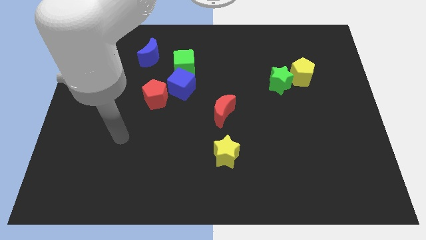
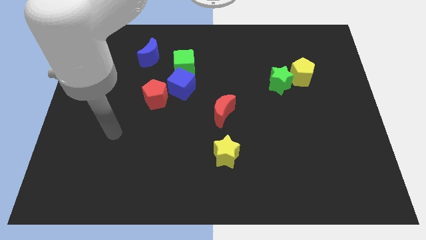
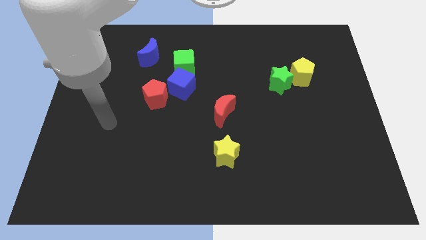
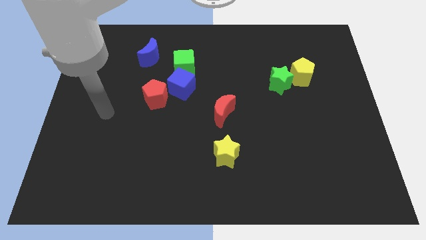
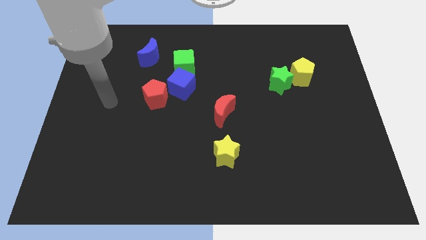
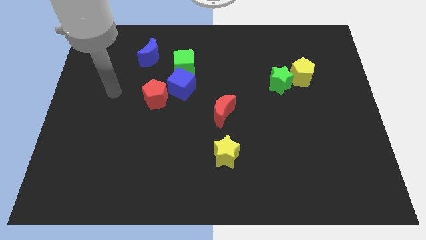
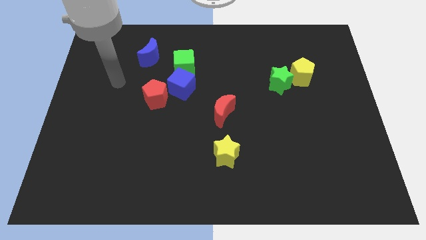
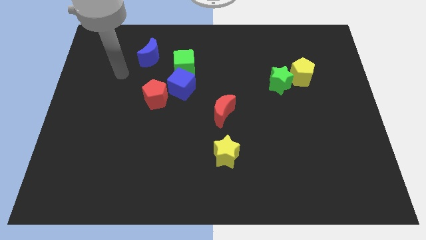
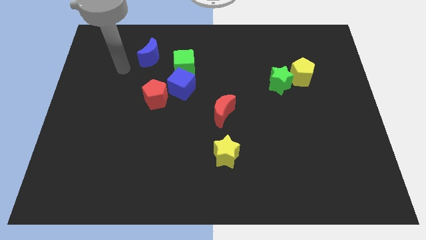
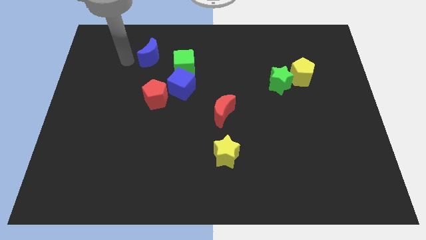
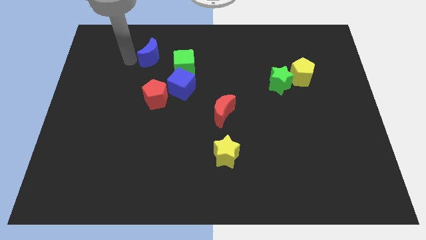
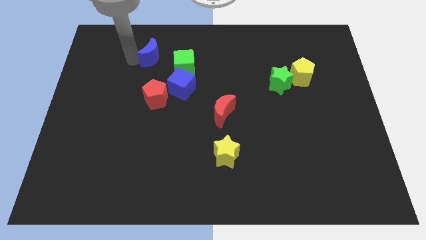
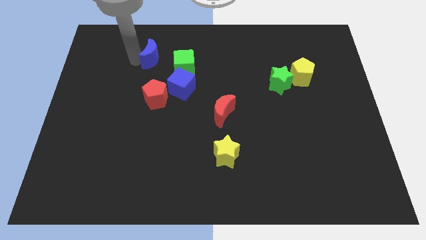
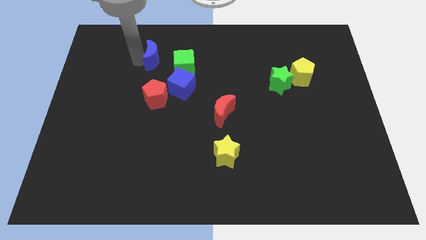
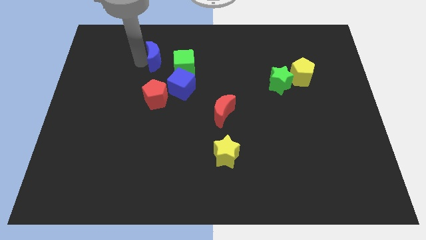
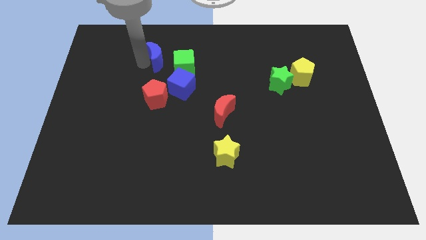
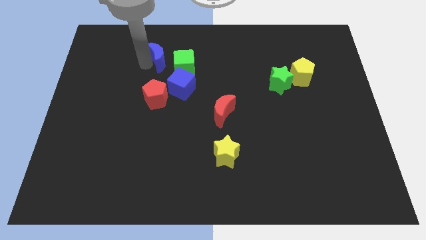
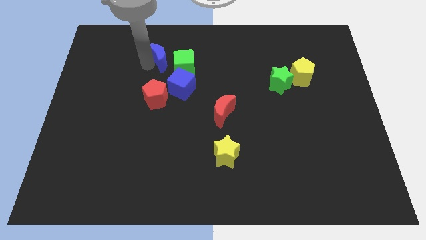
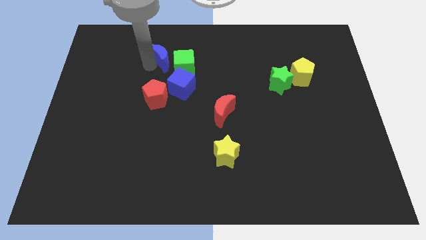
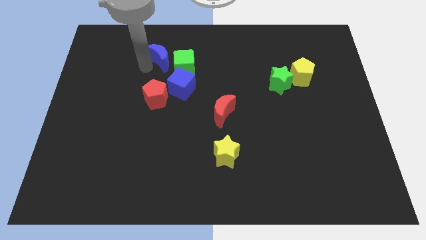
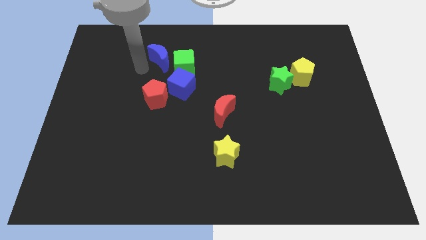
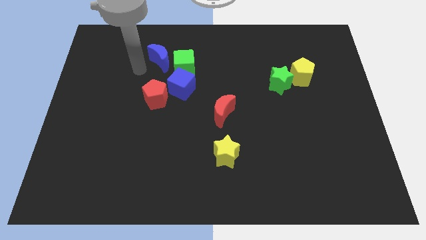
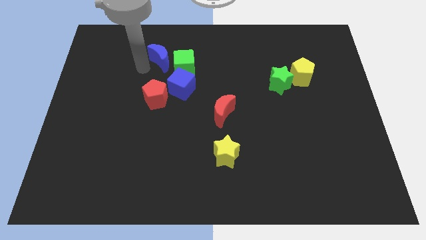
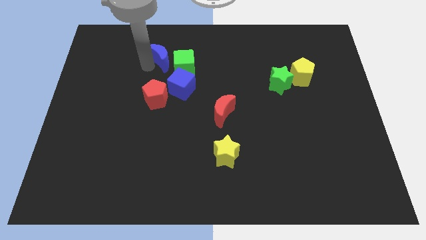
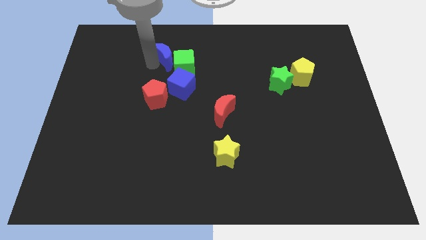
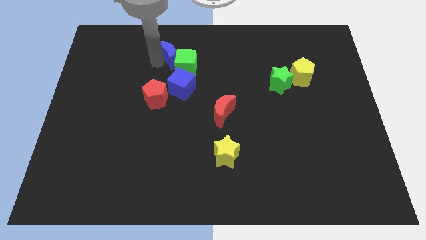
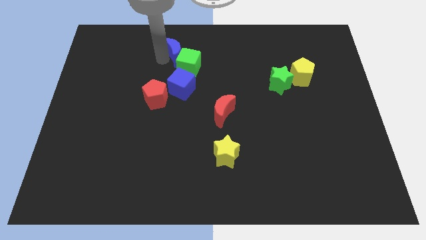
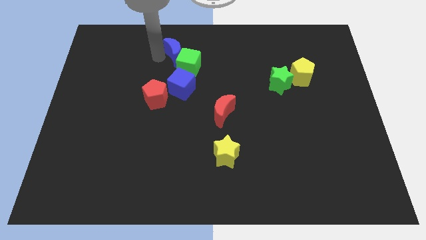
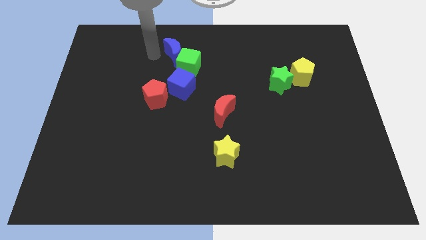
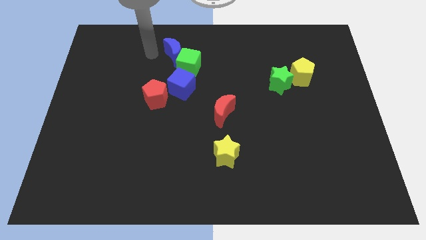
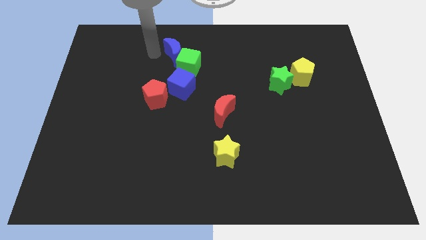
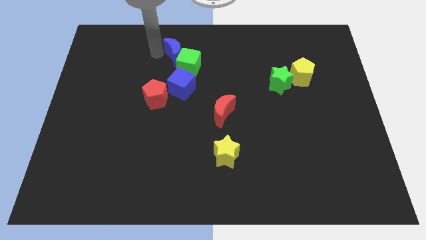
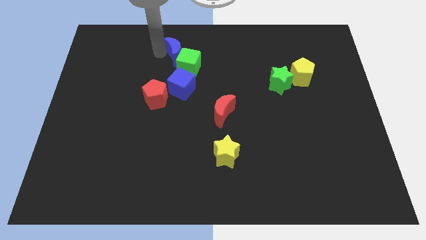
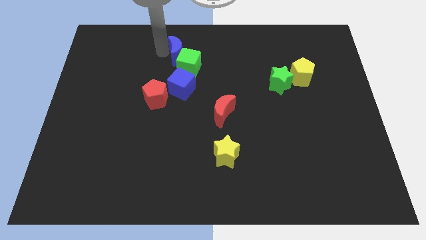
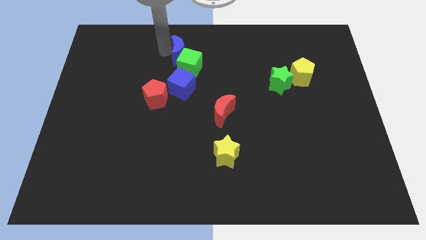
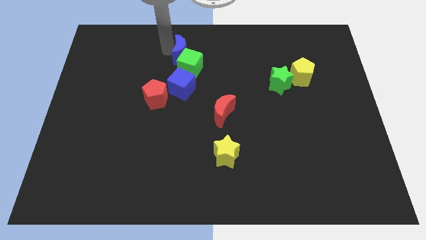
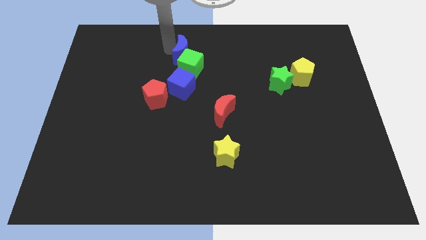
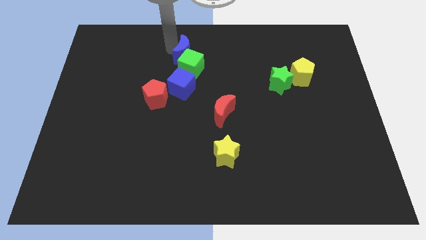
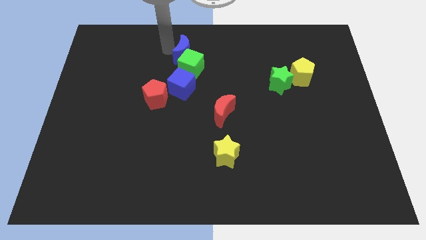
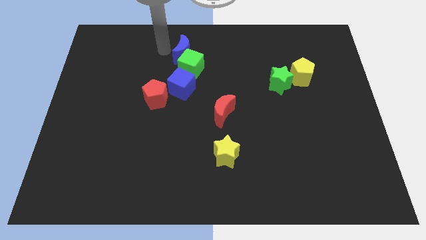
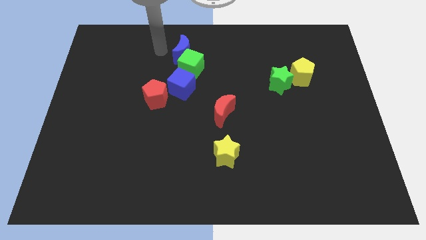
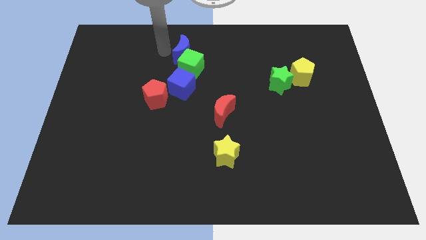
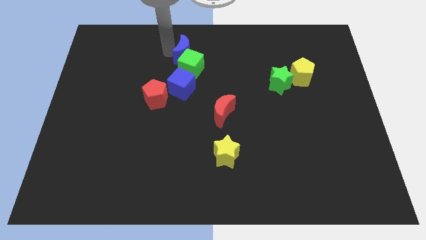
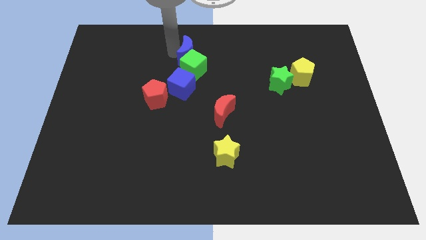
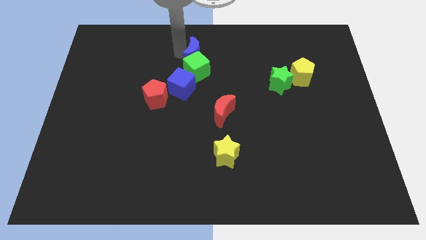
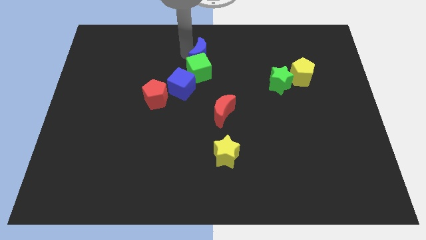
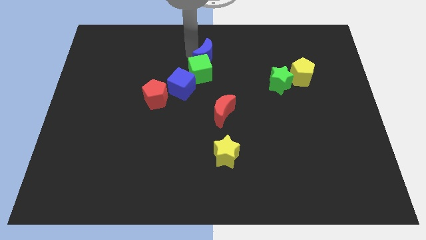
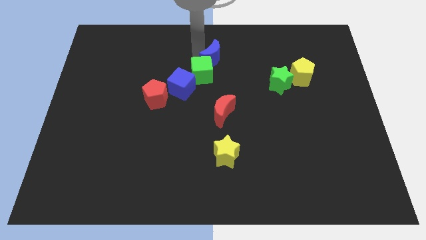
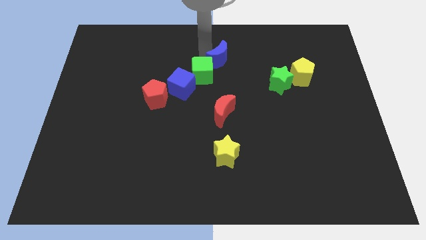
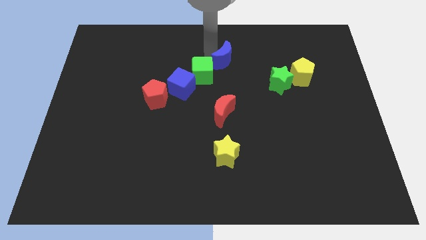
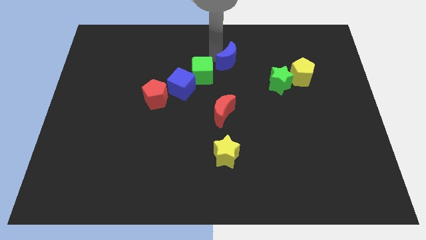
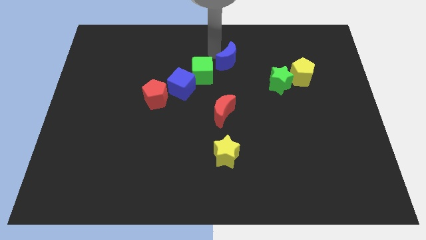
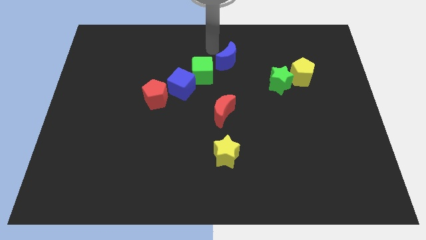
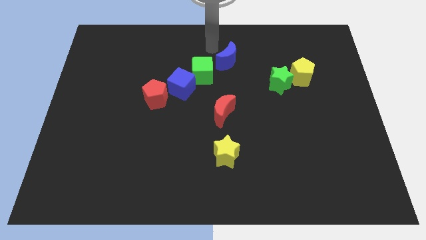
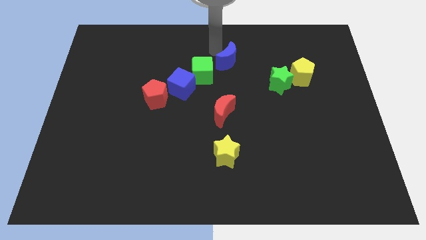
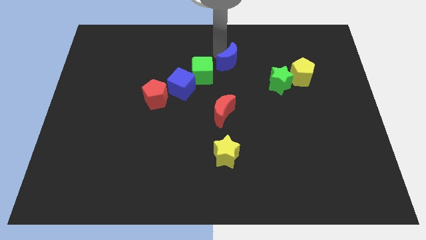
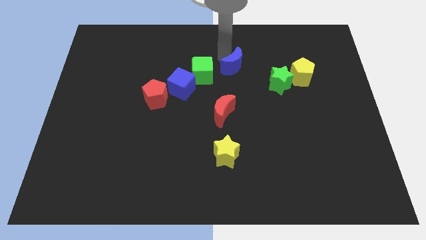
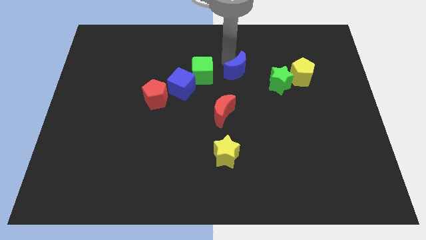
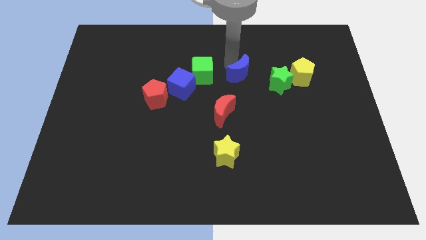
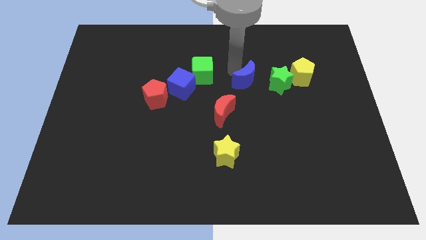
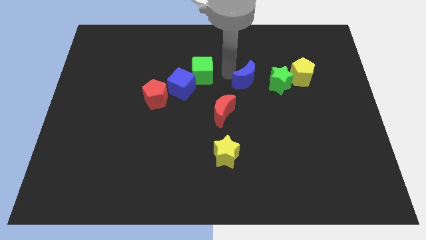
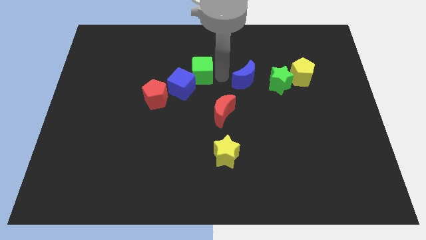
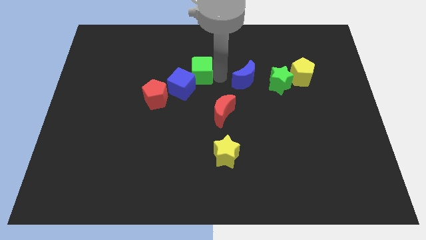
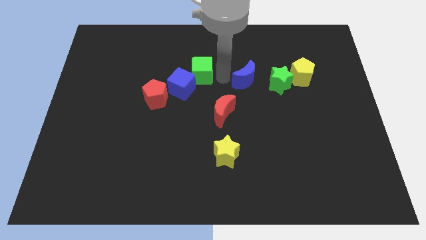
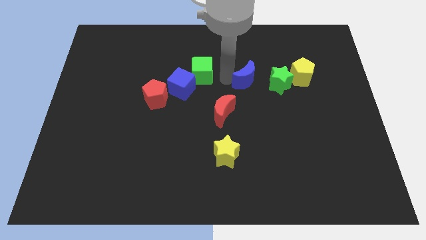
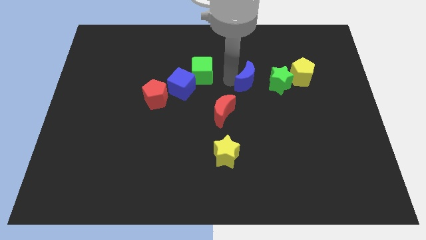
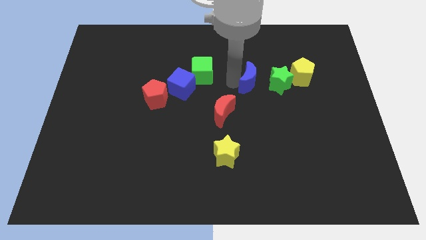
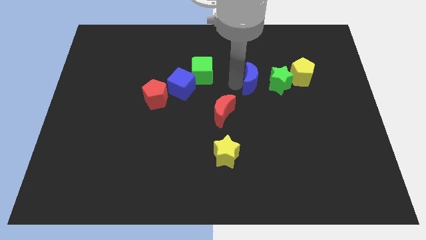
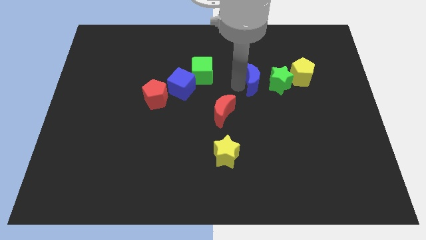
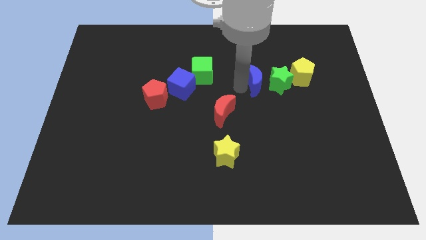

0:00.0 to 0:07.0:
slide the blue moon next to the green star

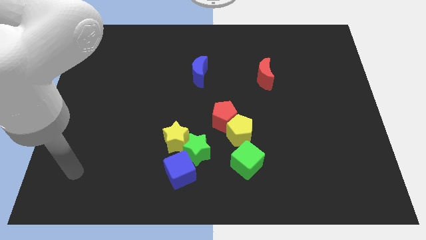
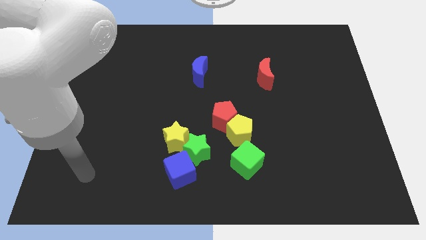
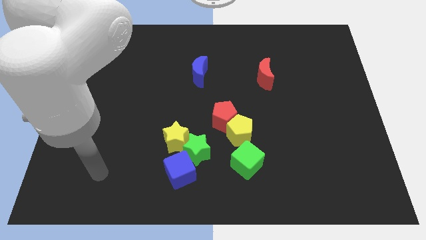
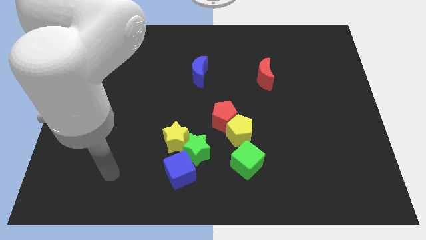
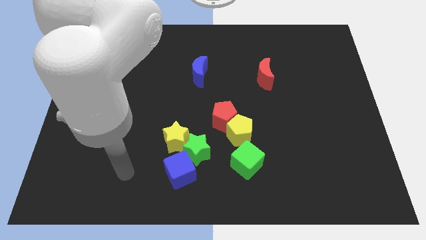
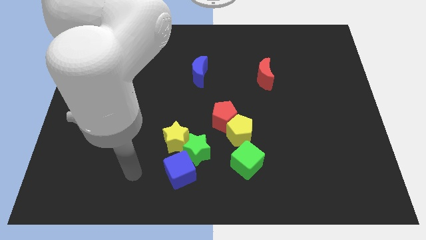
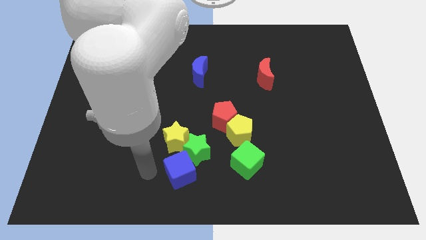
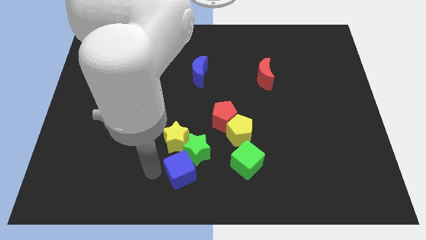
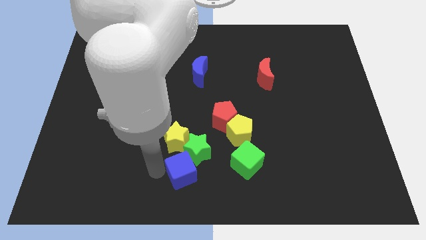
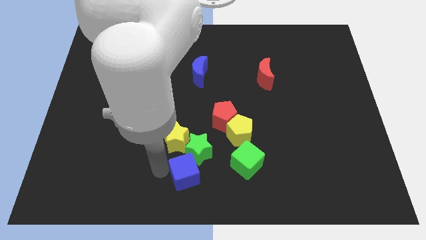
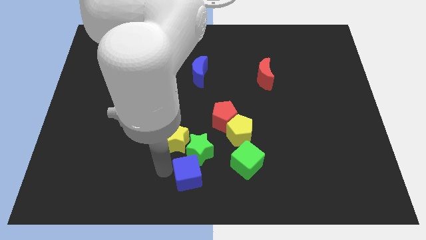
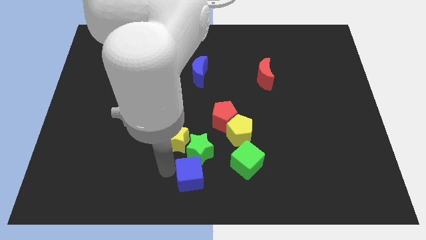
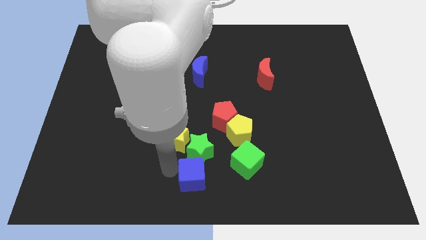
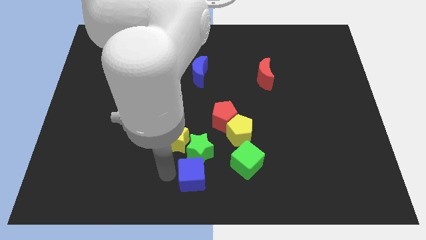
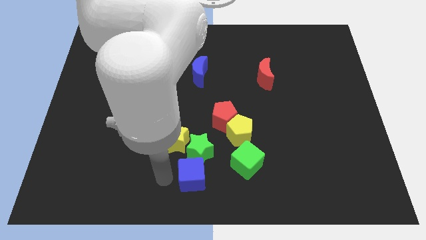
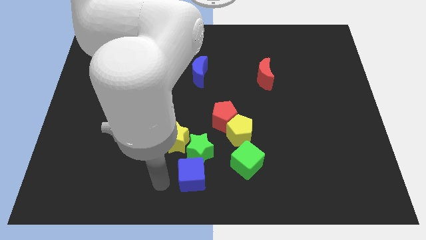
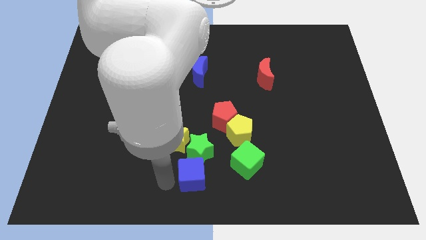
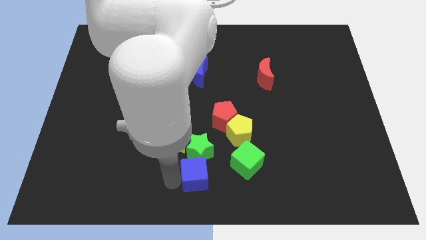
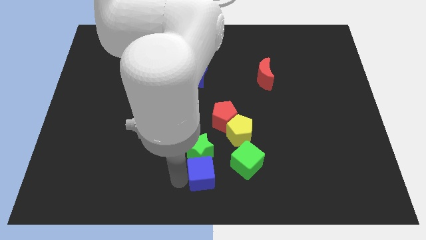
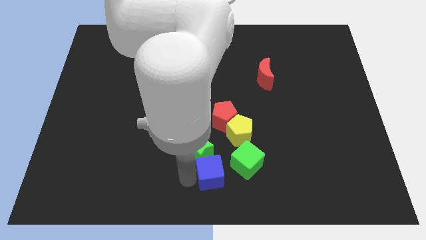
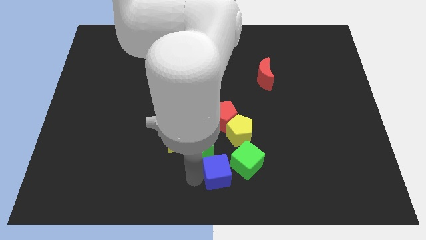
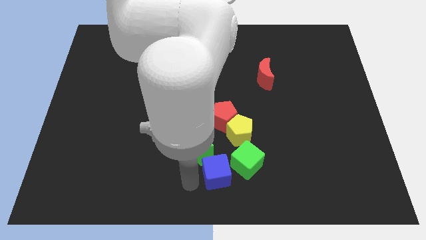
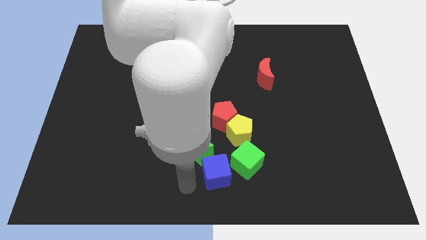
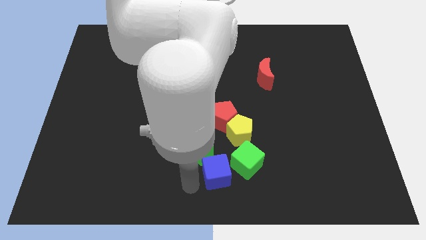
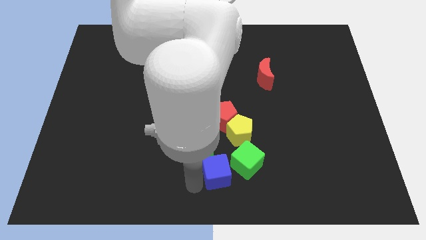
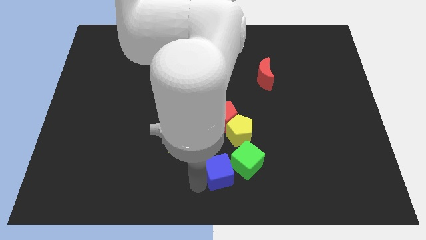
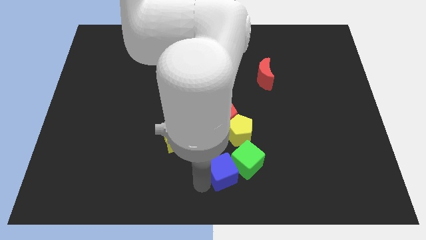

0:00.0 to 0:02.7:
put the blue cube to the green cube
